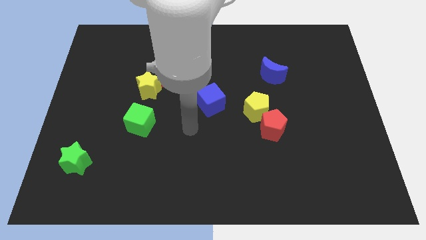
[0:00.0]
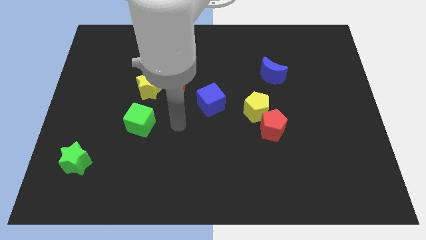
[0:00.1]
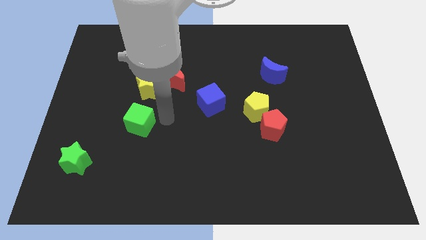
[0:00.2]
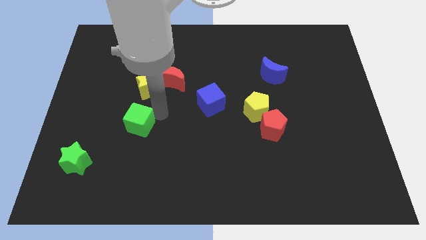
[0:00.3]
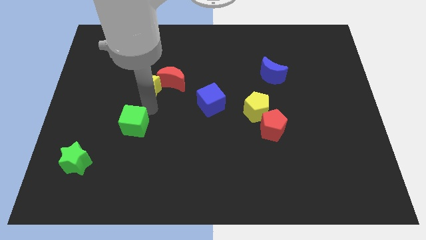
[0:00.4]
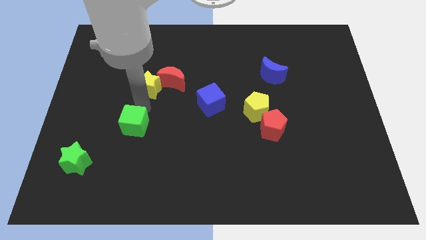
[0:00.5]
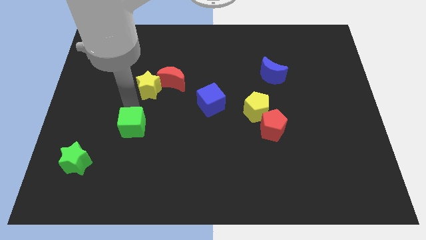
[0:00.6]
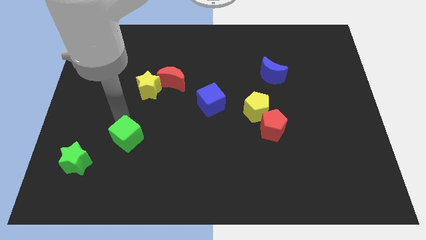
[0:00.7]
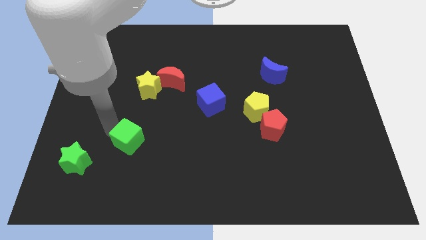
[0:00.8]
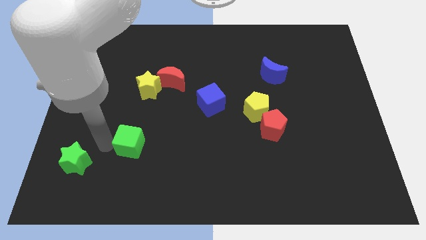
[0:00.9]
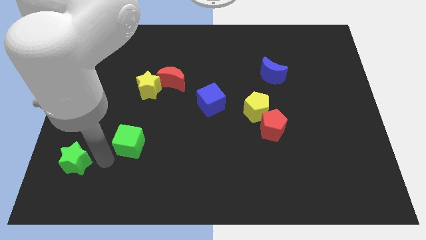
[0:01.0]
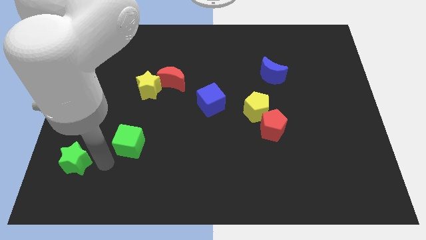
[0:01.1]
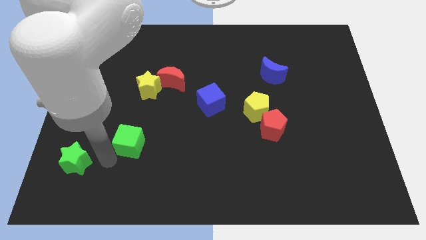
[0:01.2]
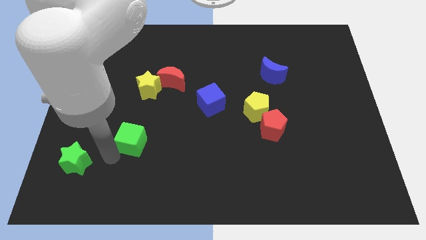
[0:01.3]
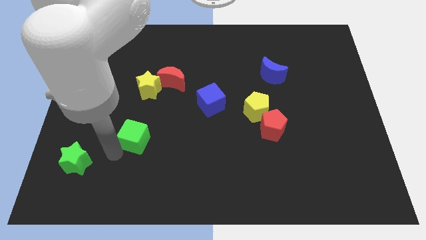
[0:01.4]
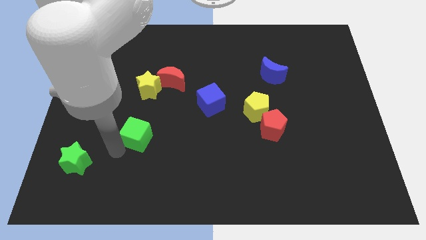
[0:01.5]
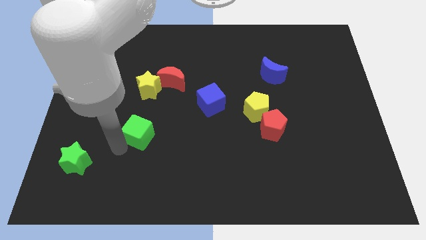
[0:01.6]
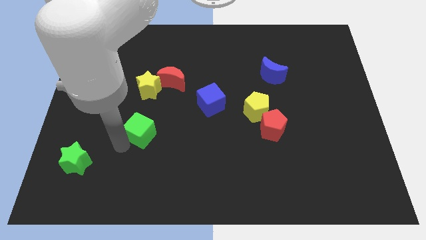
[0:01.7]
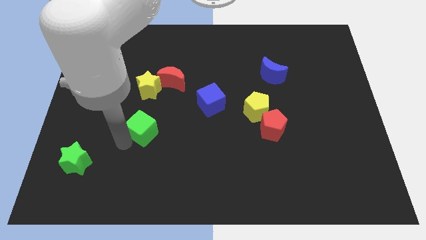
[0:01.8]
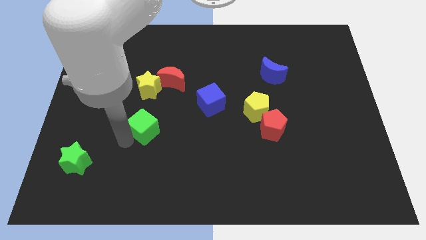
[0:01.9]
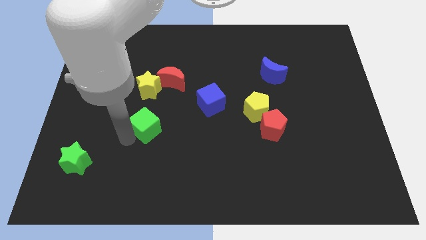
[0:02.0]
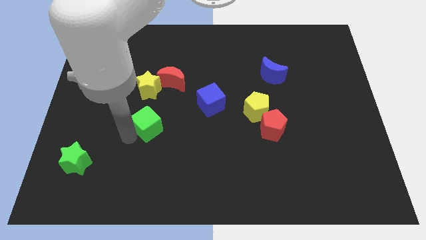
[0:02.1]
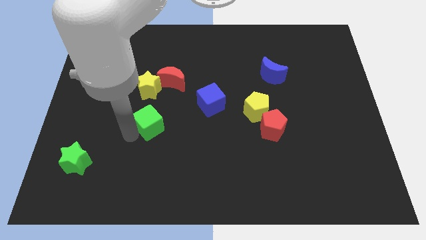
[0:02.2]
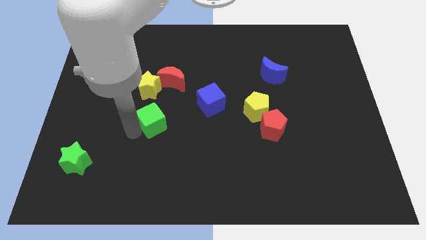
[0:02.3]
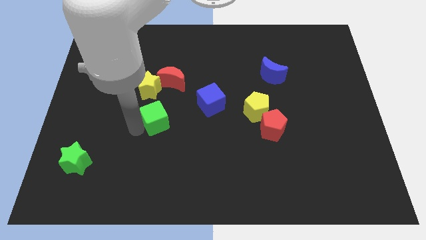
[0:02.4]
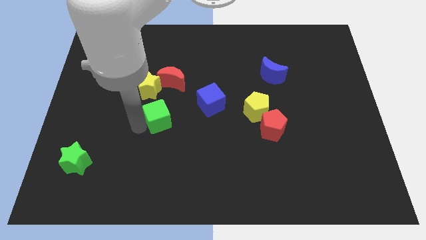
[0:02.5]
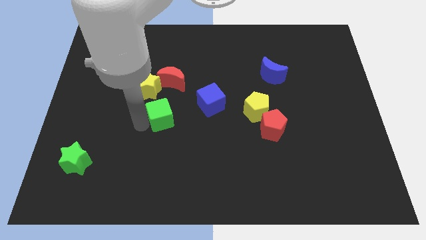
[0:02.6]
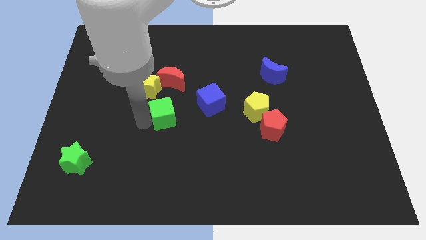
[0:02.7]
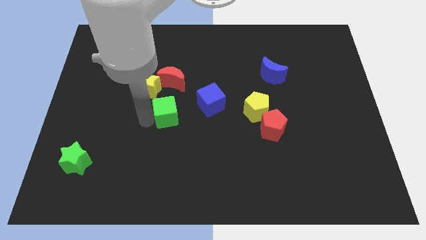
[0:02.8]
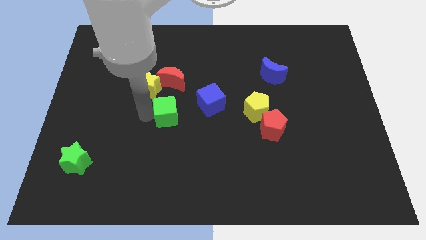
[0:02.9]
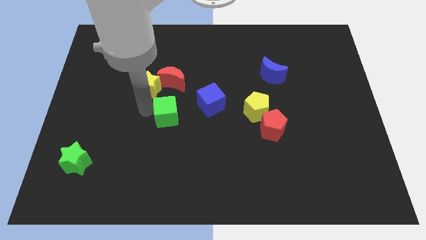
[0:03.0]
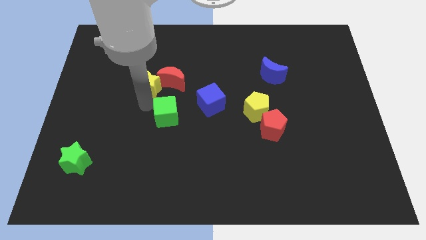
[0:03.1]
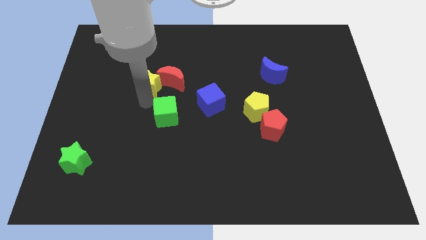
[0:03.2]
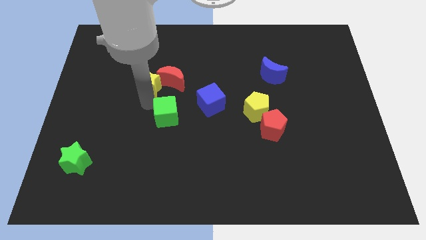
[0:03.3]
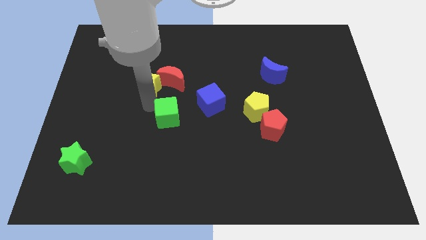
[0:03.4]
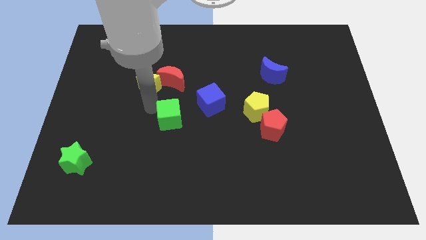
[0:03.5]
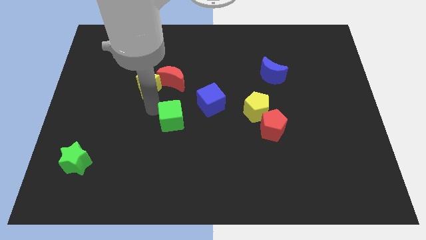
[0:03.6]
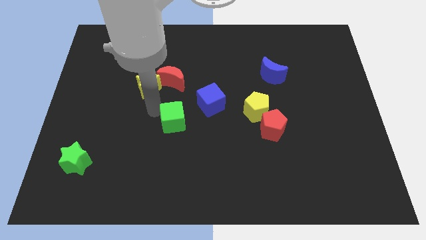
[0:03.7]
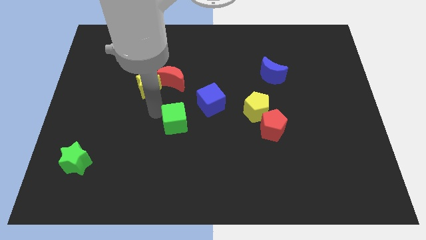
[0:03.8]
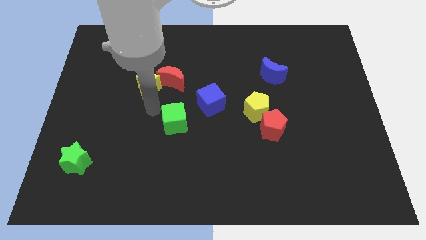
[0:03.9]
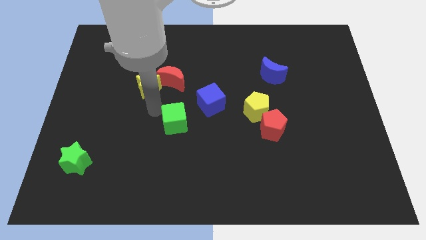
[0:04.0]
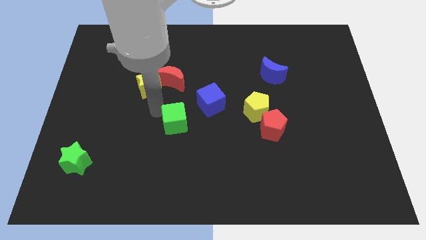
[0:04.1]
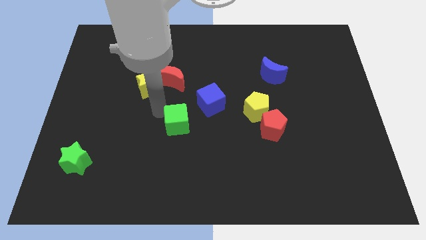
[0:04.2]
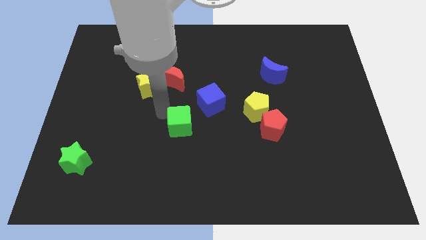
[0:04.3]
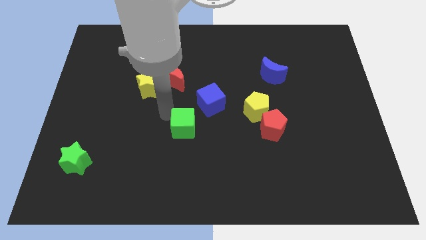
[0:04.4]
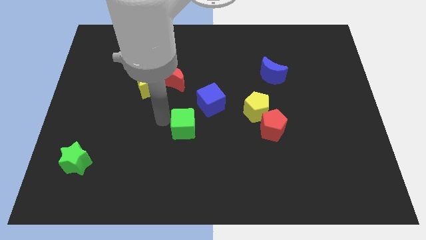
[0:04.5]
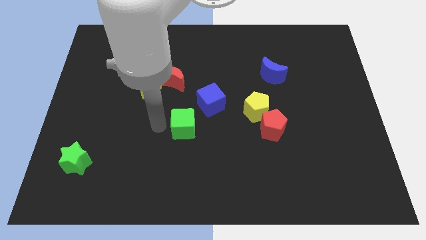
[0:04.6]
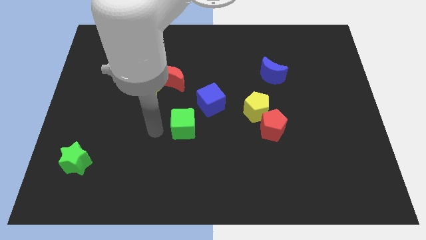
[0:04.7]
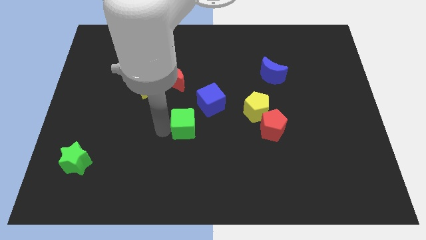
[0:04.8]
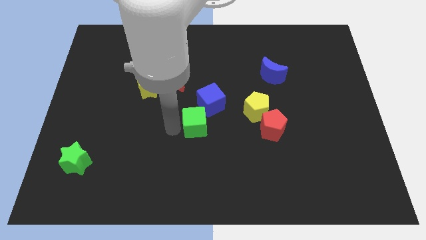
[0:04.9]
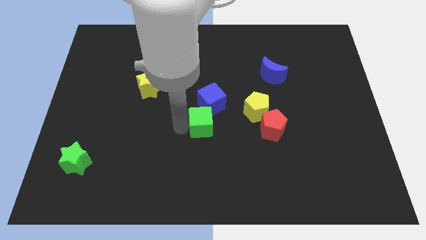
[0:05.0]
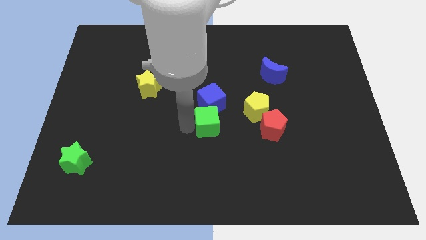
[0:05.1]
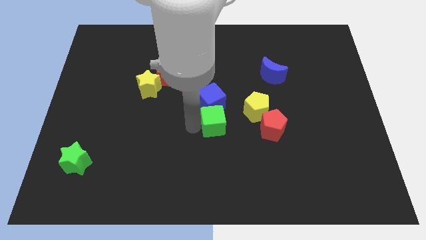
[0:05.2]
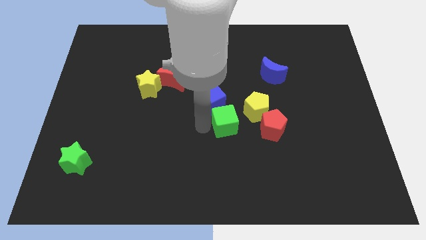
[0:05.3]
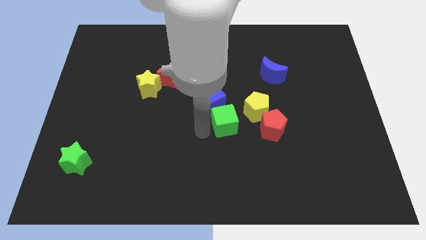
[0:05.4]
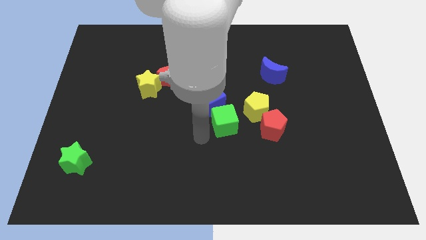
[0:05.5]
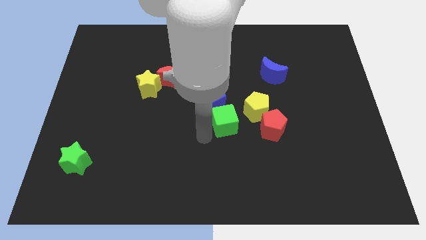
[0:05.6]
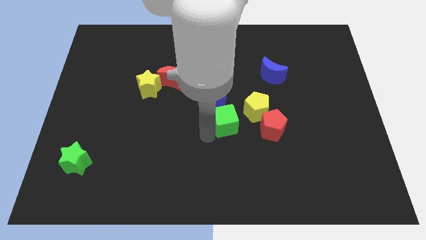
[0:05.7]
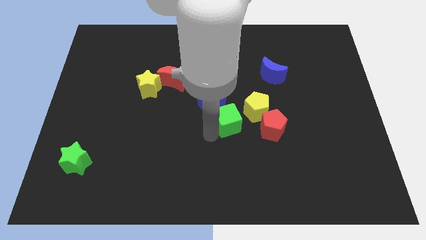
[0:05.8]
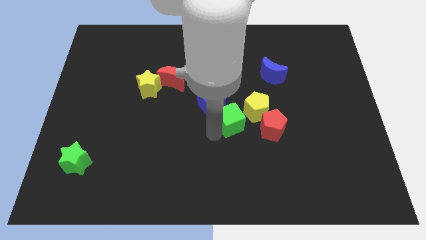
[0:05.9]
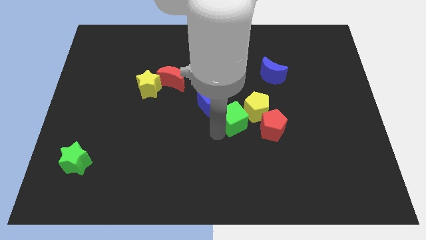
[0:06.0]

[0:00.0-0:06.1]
move the green cube to the top left side of the red pentagon

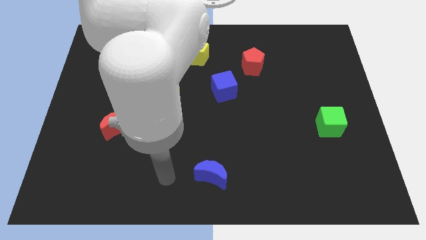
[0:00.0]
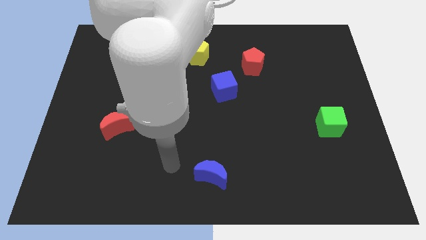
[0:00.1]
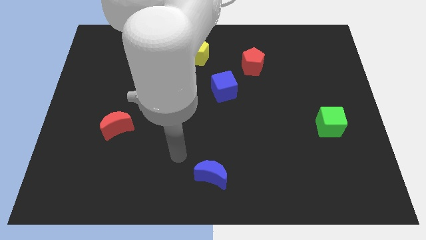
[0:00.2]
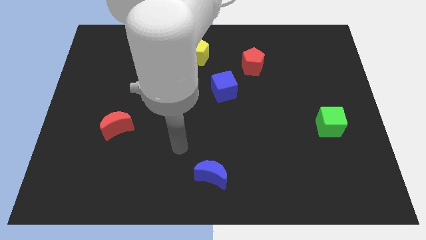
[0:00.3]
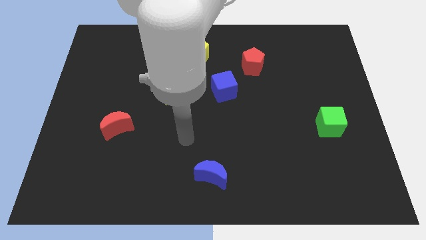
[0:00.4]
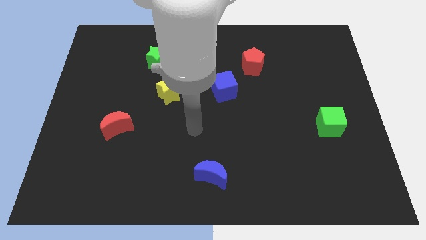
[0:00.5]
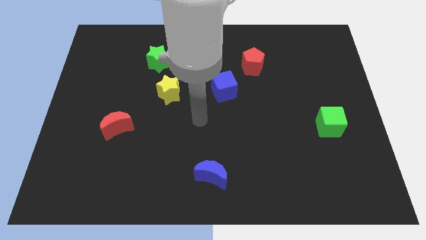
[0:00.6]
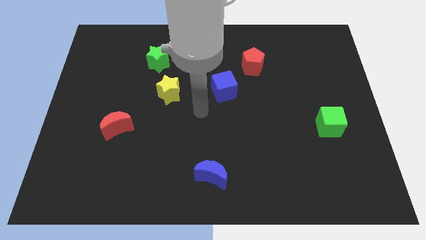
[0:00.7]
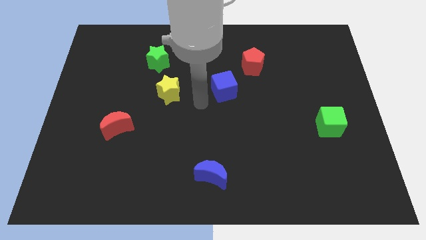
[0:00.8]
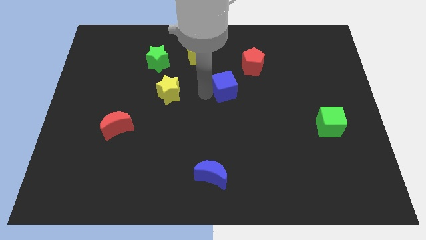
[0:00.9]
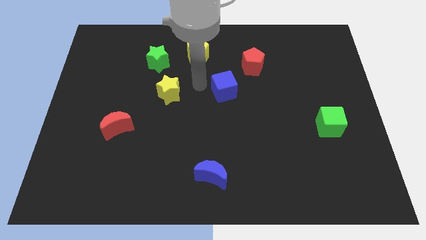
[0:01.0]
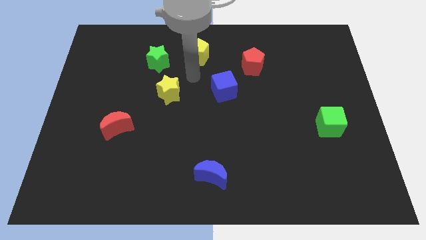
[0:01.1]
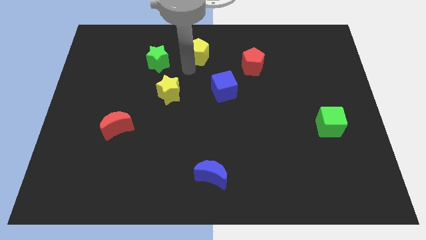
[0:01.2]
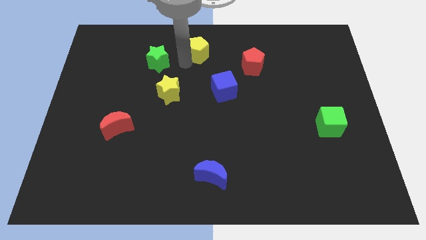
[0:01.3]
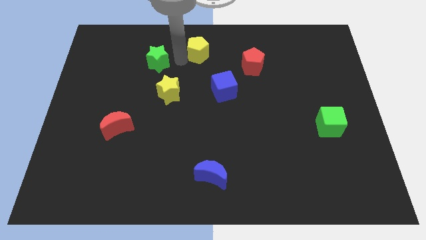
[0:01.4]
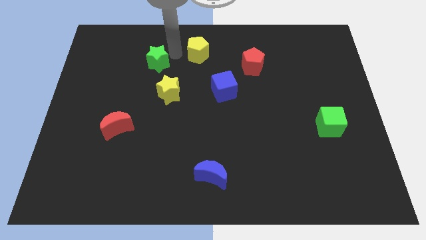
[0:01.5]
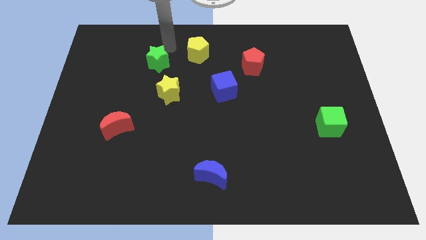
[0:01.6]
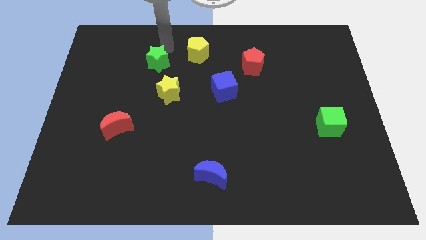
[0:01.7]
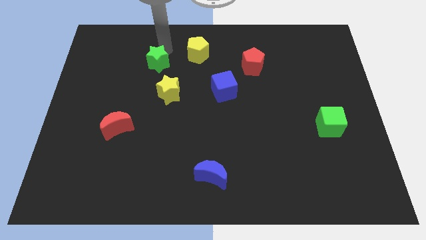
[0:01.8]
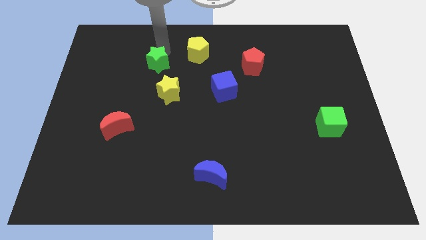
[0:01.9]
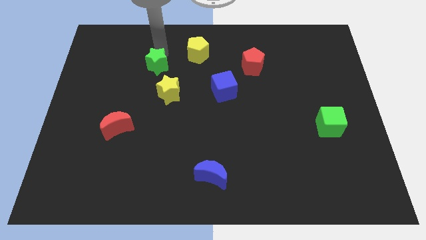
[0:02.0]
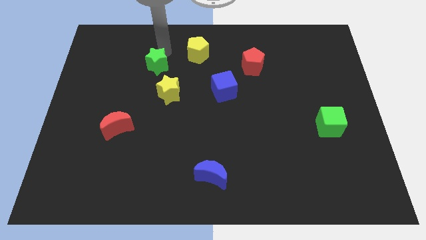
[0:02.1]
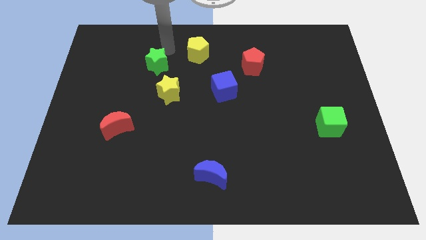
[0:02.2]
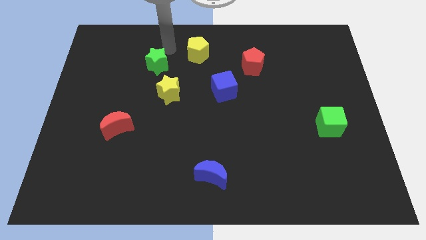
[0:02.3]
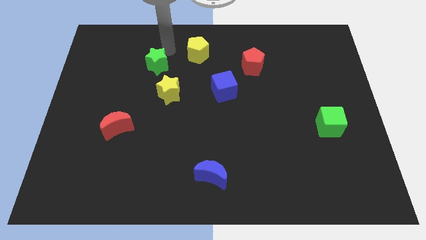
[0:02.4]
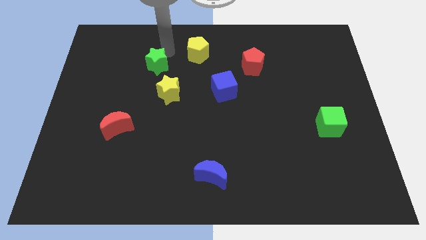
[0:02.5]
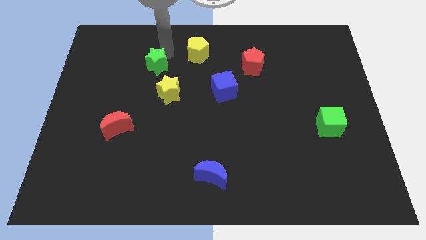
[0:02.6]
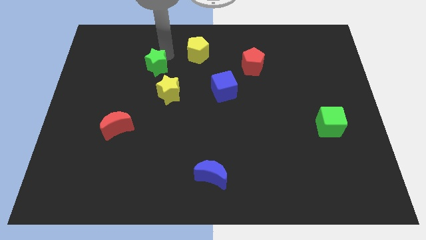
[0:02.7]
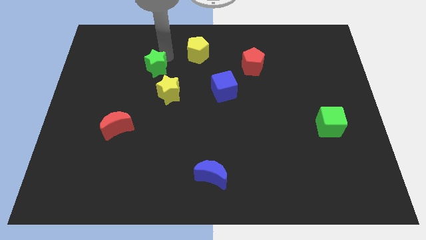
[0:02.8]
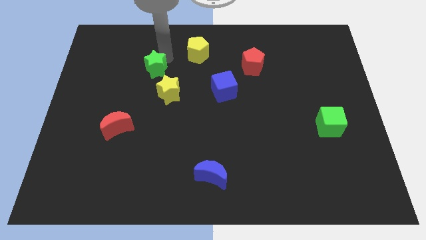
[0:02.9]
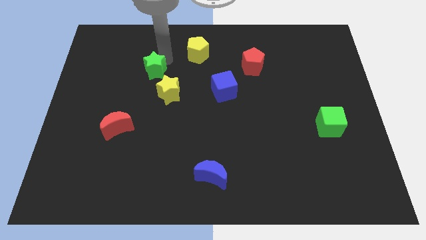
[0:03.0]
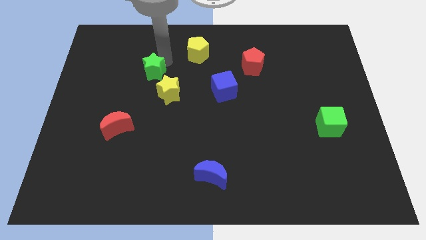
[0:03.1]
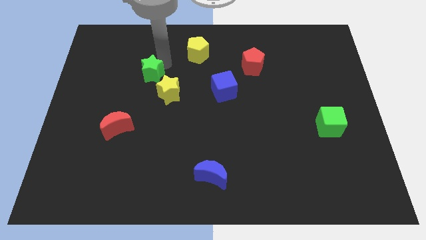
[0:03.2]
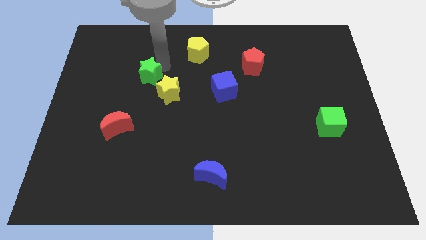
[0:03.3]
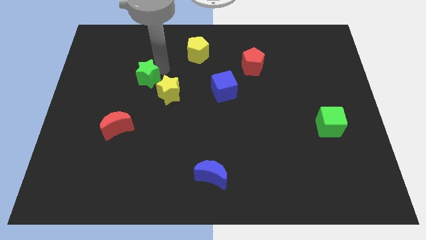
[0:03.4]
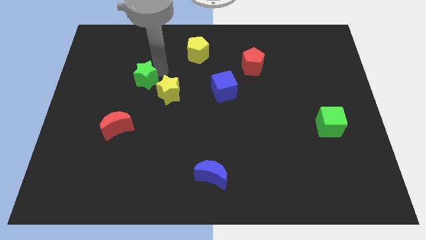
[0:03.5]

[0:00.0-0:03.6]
put the green star to the left of the yellow star
